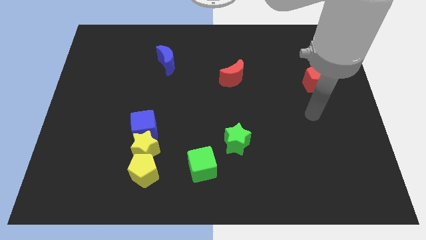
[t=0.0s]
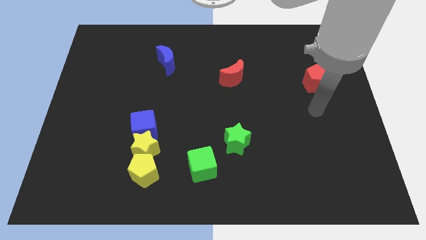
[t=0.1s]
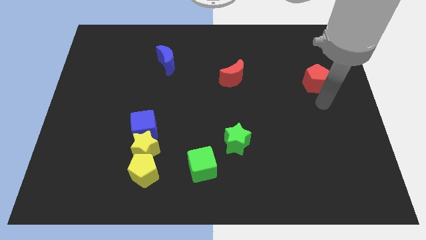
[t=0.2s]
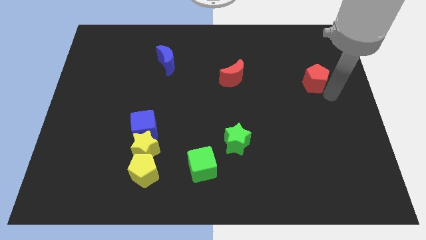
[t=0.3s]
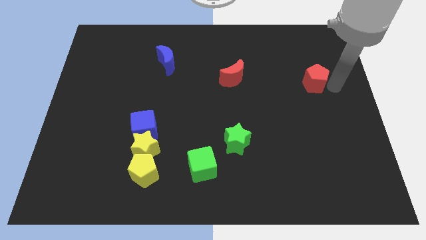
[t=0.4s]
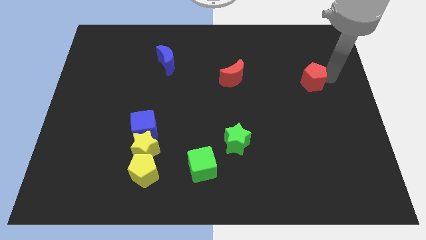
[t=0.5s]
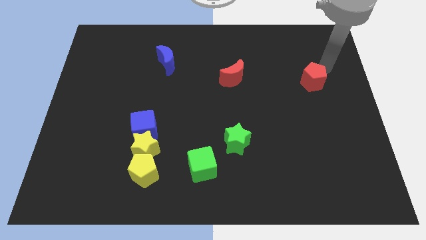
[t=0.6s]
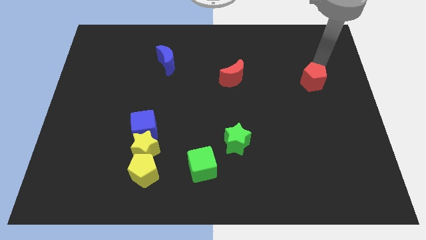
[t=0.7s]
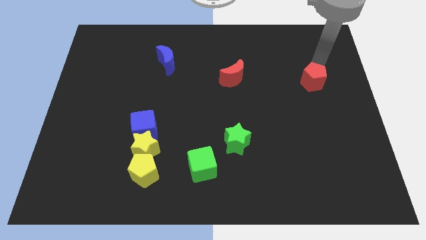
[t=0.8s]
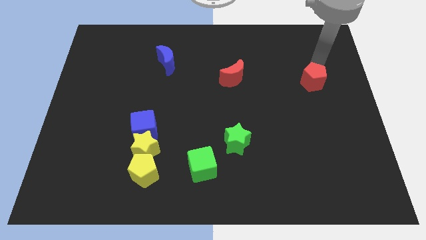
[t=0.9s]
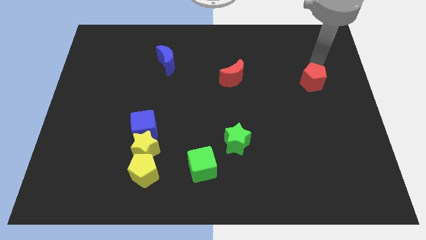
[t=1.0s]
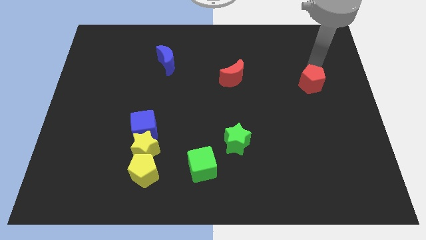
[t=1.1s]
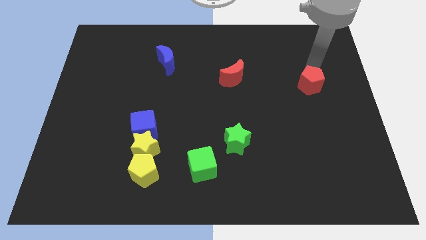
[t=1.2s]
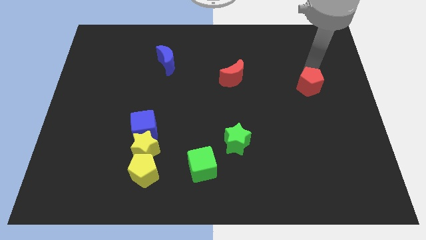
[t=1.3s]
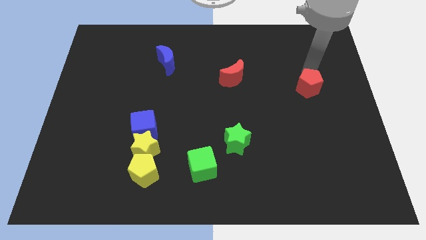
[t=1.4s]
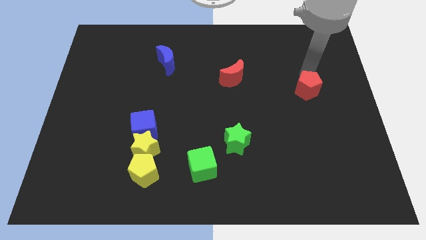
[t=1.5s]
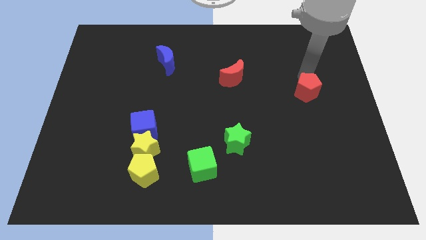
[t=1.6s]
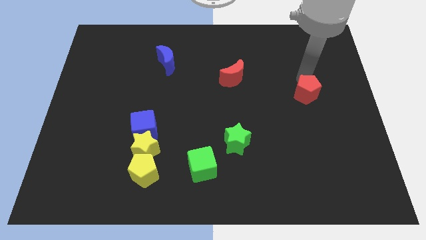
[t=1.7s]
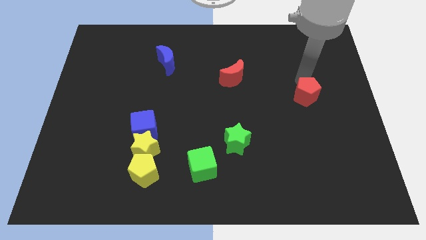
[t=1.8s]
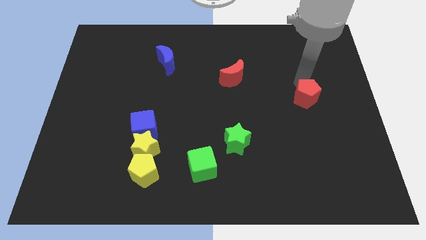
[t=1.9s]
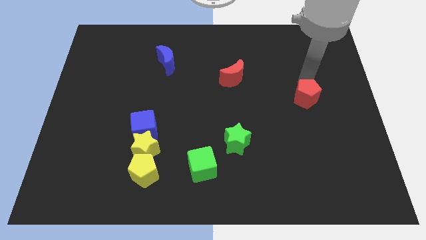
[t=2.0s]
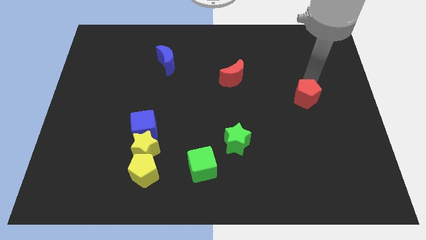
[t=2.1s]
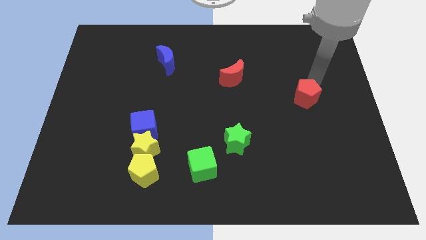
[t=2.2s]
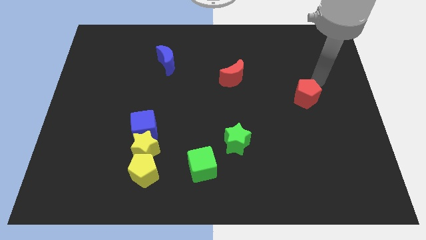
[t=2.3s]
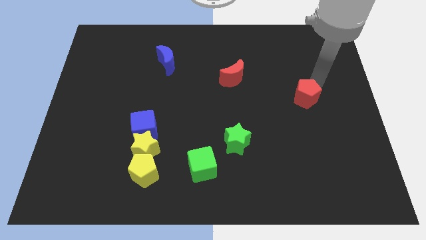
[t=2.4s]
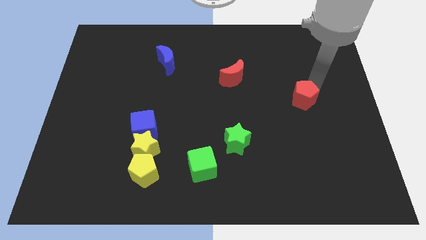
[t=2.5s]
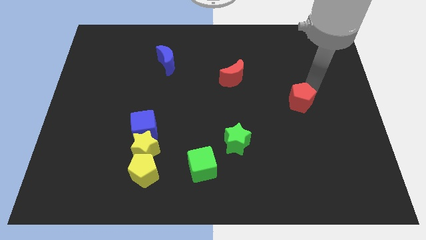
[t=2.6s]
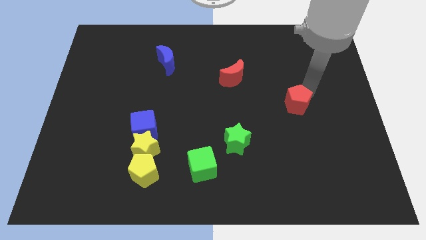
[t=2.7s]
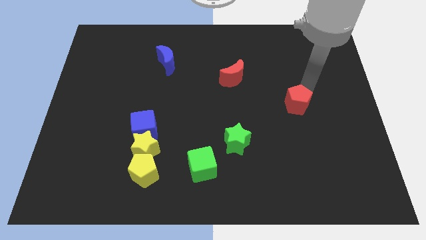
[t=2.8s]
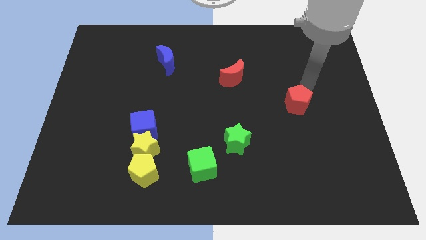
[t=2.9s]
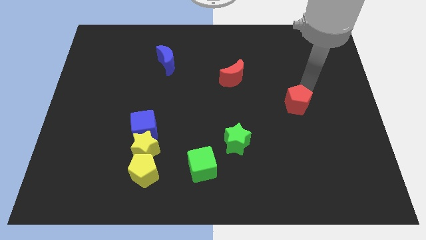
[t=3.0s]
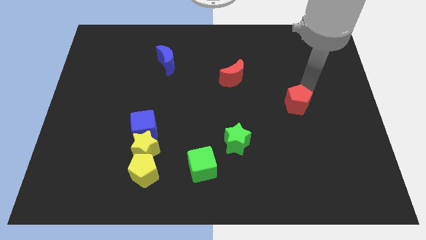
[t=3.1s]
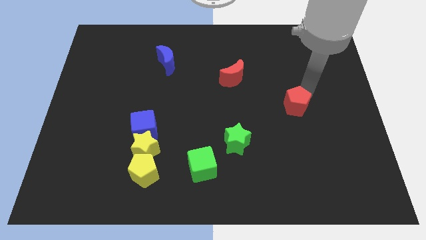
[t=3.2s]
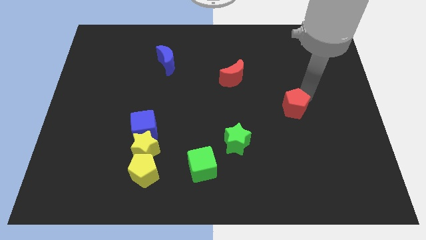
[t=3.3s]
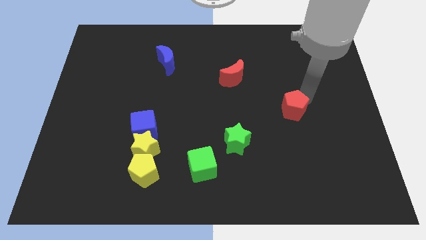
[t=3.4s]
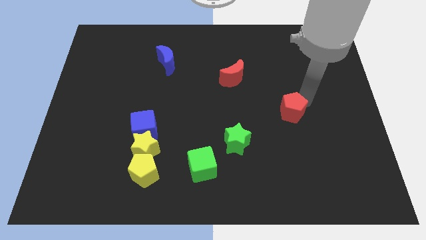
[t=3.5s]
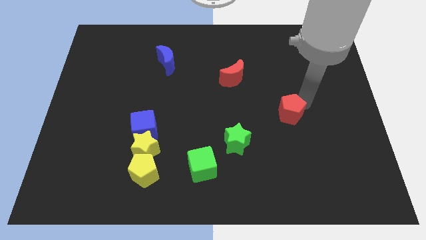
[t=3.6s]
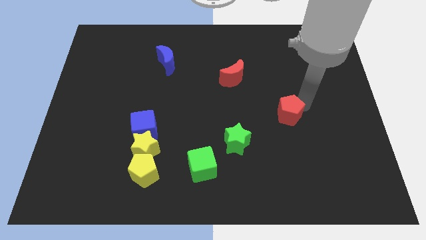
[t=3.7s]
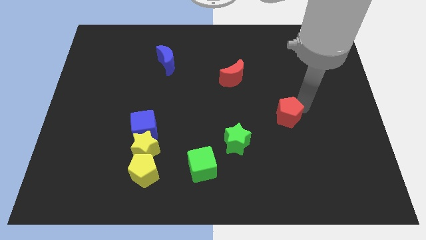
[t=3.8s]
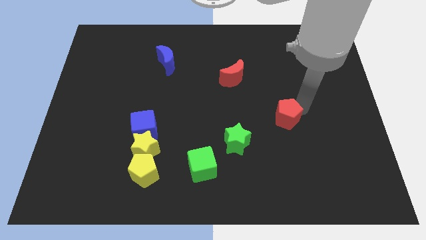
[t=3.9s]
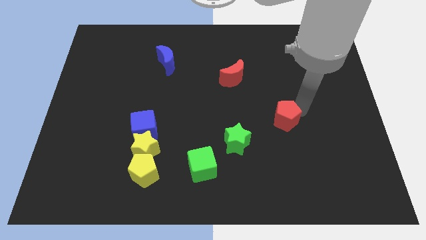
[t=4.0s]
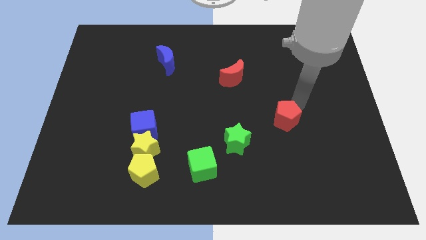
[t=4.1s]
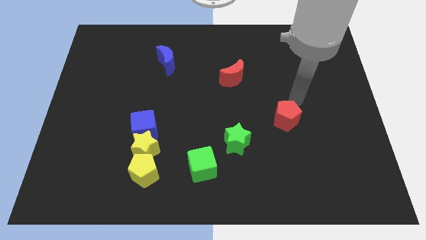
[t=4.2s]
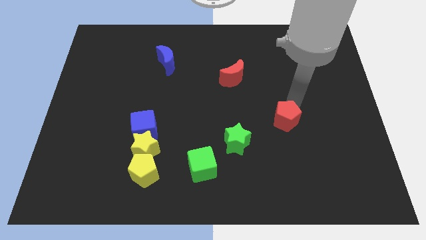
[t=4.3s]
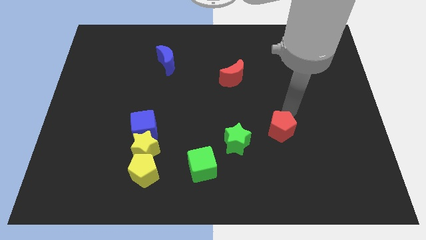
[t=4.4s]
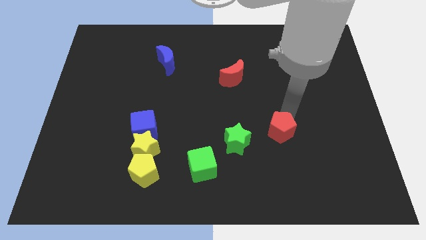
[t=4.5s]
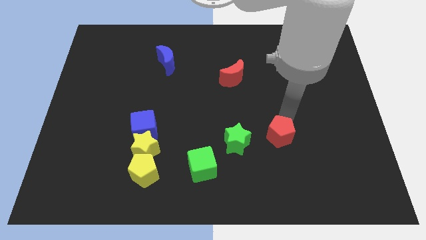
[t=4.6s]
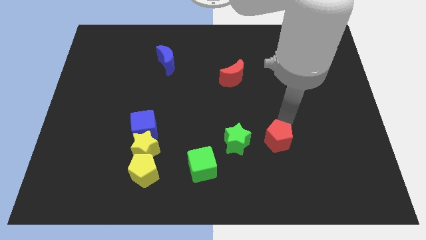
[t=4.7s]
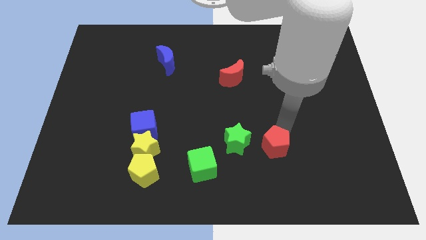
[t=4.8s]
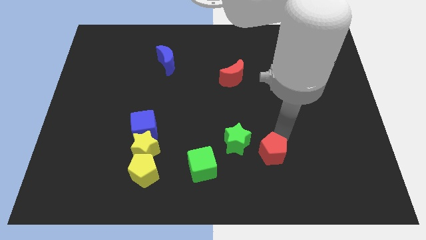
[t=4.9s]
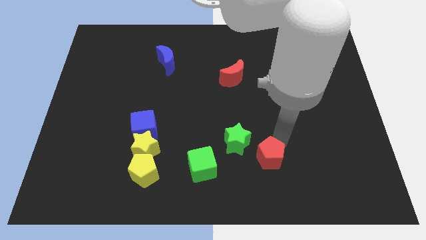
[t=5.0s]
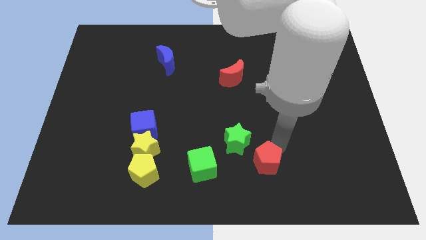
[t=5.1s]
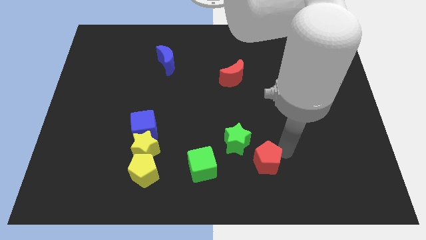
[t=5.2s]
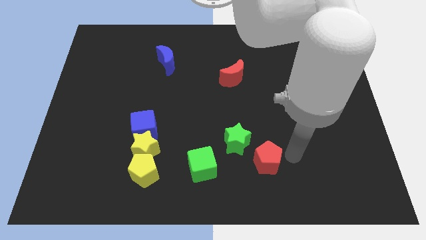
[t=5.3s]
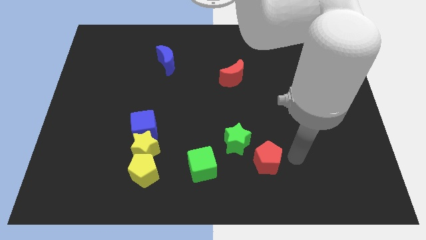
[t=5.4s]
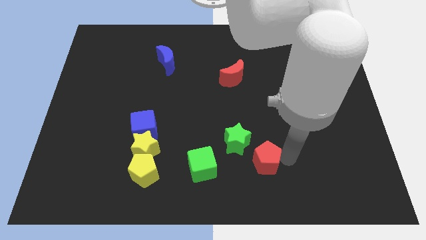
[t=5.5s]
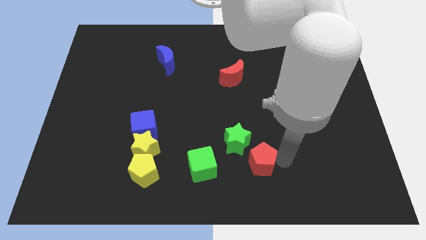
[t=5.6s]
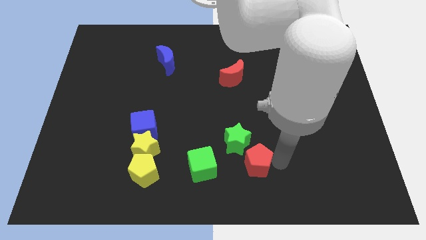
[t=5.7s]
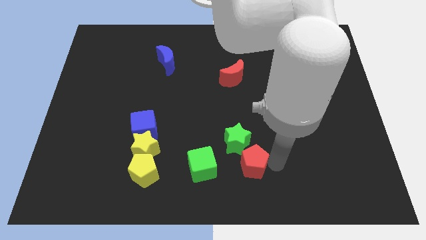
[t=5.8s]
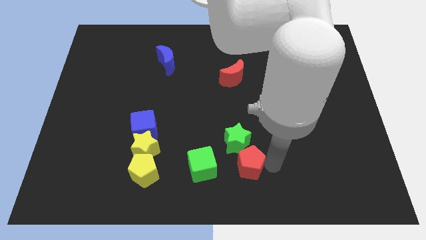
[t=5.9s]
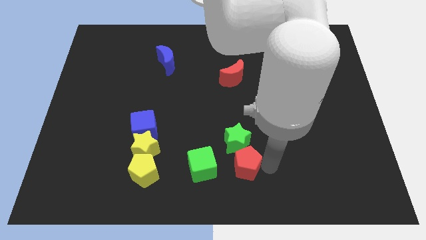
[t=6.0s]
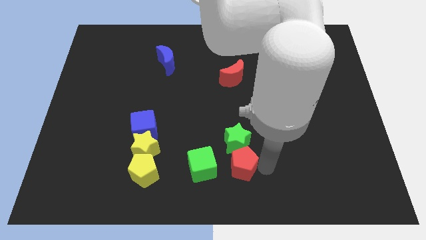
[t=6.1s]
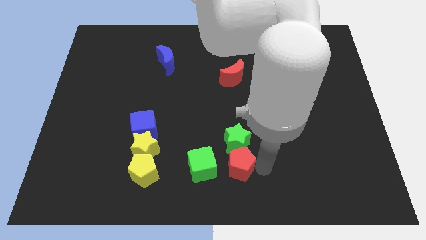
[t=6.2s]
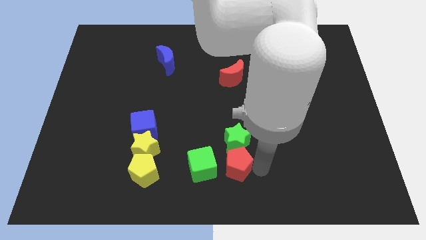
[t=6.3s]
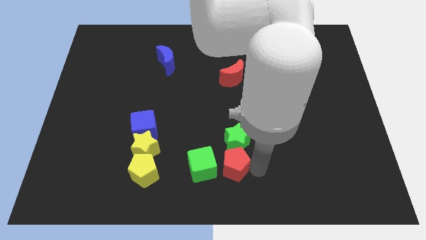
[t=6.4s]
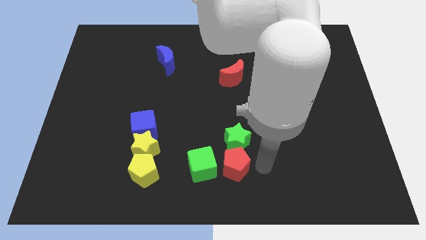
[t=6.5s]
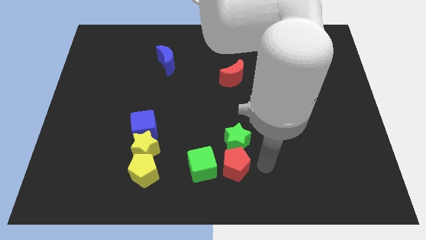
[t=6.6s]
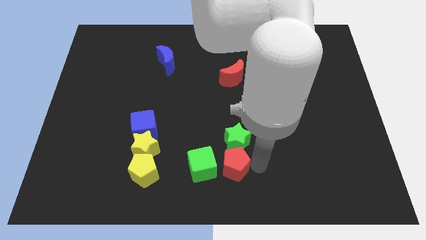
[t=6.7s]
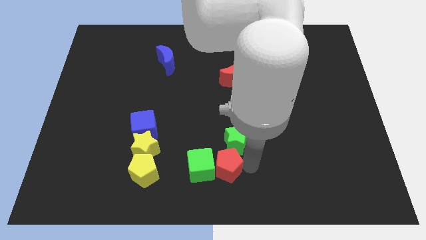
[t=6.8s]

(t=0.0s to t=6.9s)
put the red pentagon close to the green cube
